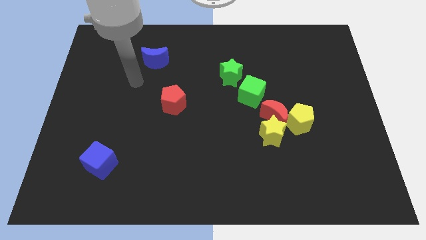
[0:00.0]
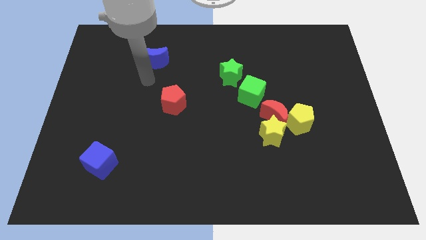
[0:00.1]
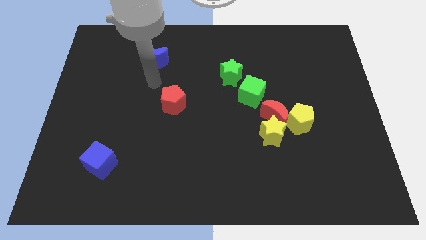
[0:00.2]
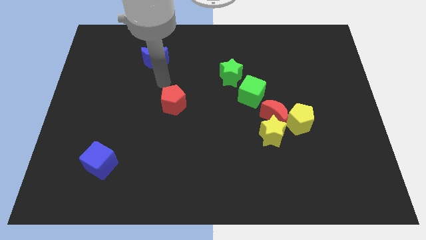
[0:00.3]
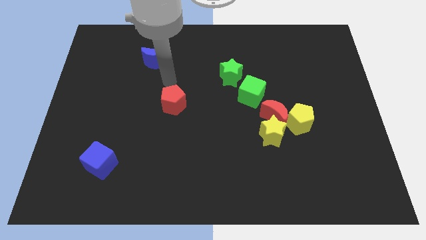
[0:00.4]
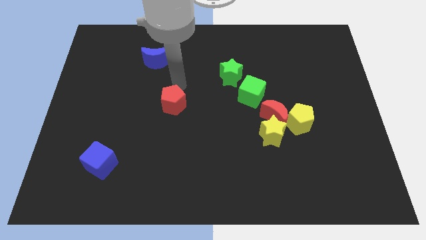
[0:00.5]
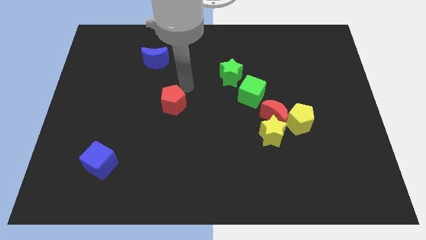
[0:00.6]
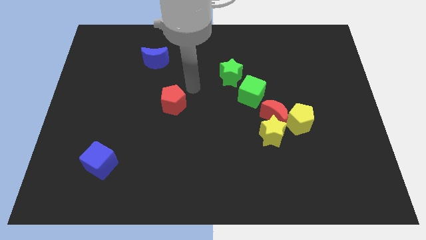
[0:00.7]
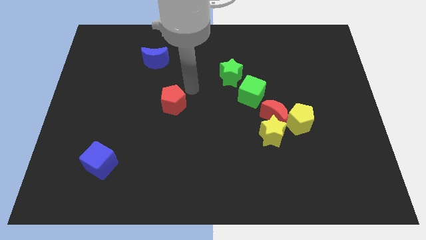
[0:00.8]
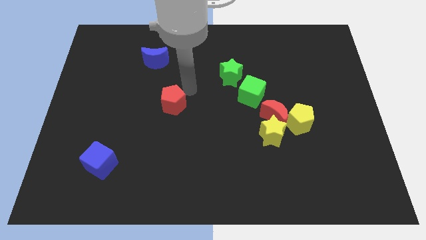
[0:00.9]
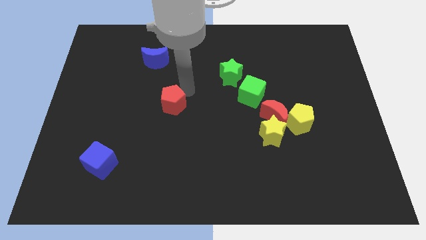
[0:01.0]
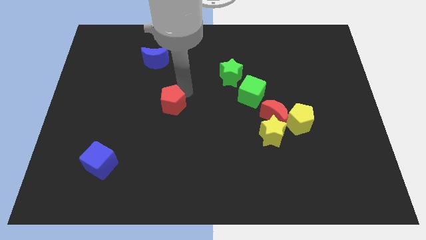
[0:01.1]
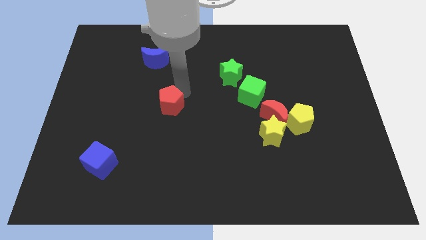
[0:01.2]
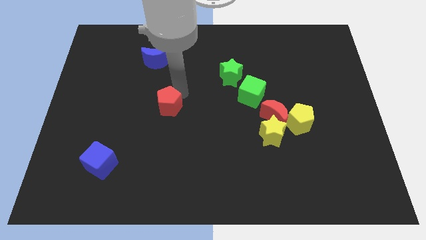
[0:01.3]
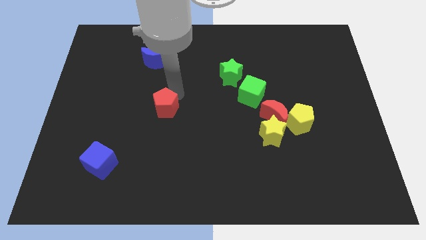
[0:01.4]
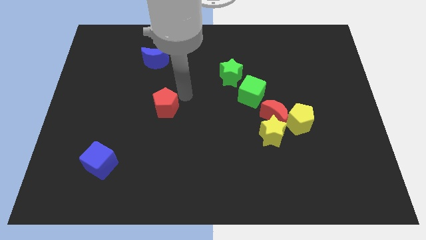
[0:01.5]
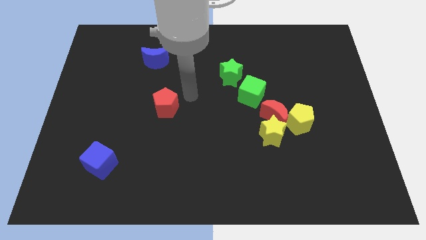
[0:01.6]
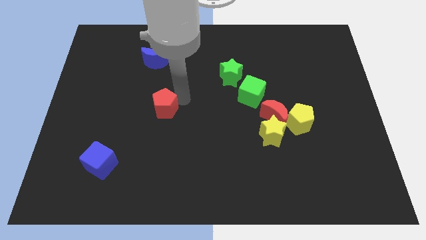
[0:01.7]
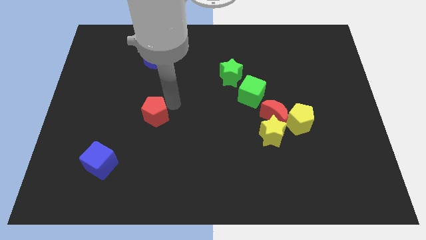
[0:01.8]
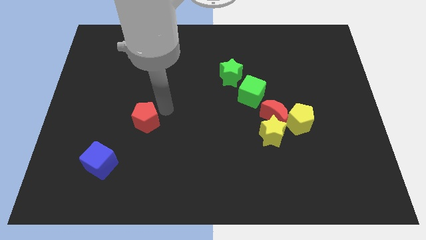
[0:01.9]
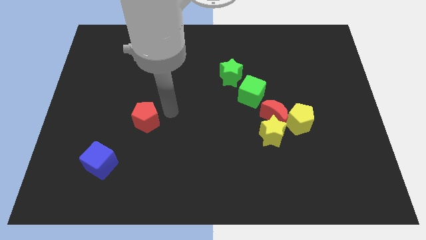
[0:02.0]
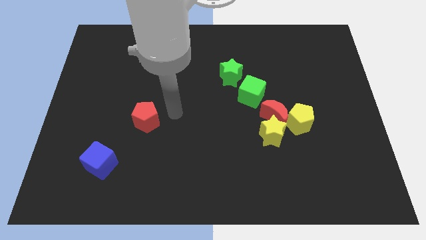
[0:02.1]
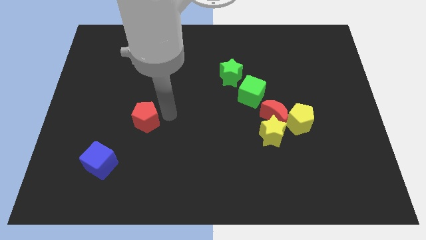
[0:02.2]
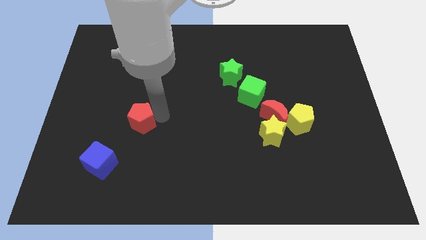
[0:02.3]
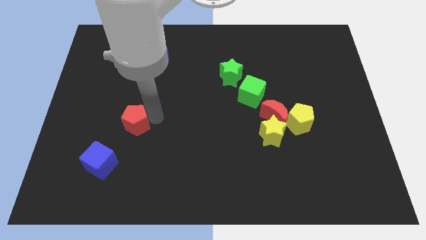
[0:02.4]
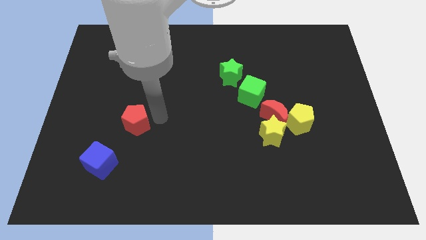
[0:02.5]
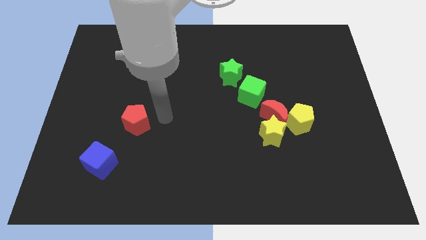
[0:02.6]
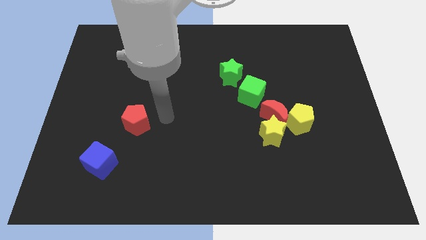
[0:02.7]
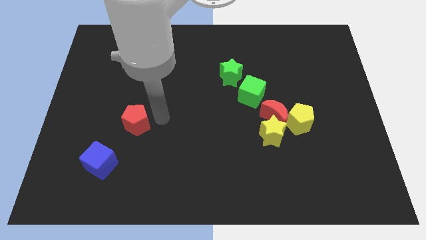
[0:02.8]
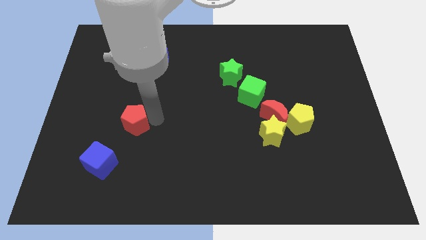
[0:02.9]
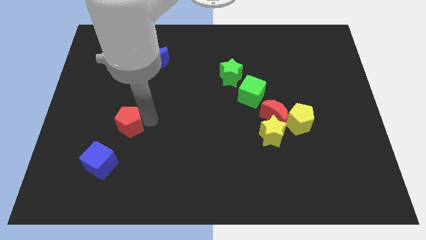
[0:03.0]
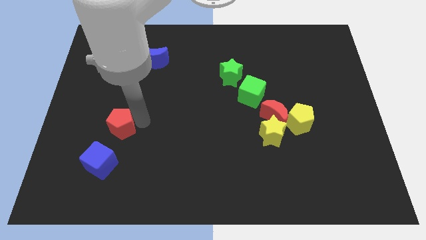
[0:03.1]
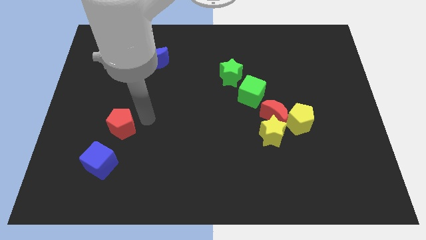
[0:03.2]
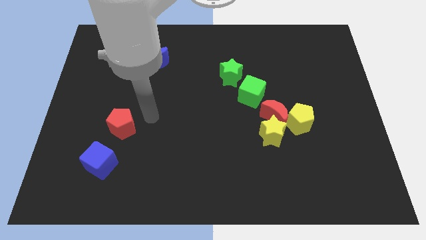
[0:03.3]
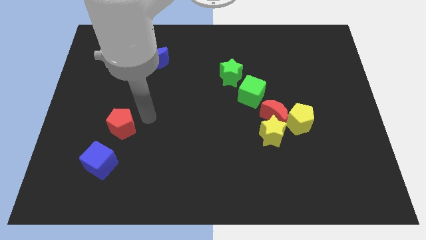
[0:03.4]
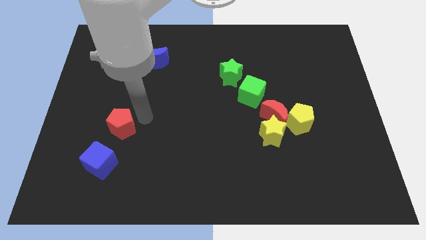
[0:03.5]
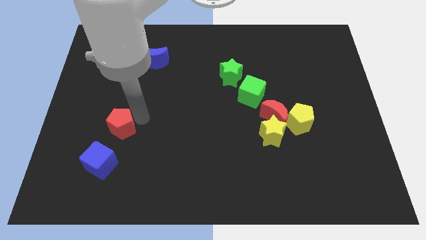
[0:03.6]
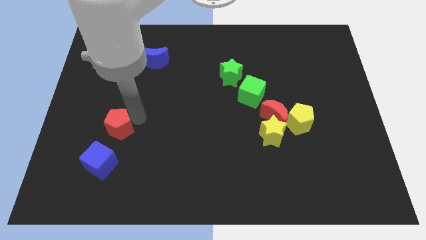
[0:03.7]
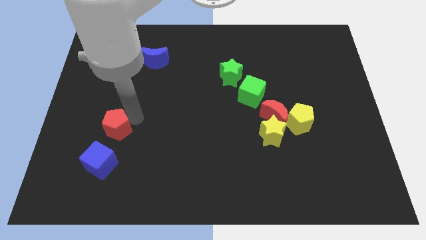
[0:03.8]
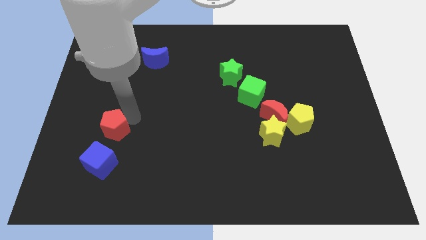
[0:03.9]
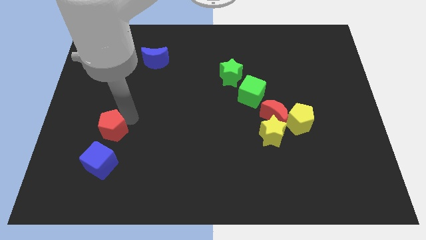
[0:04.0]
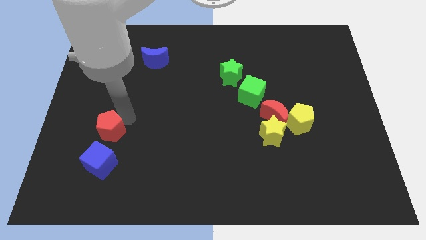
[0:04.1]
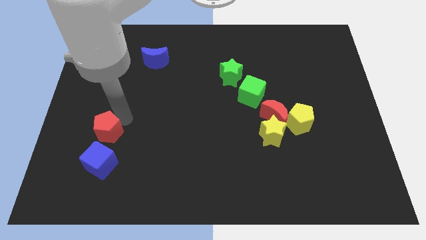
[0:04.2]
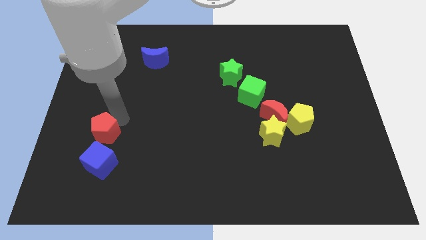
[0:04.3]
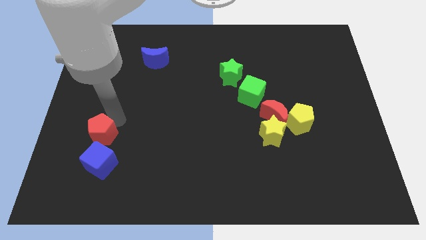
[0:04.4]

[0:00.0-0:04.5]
push the red pentagon to the top left of the blue cube

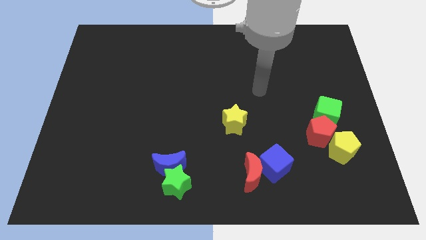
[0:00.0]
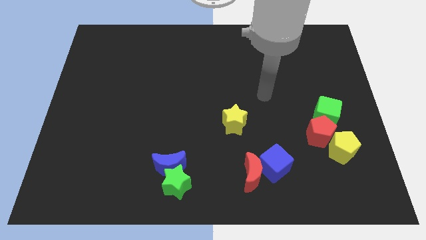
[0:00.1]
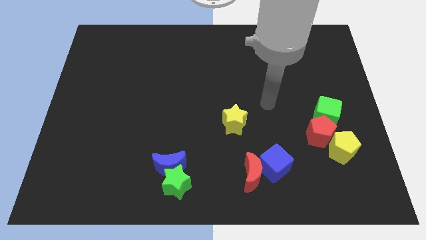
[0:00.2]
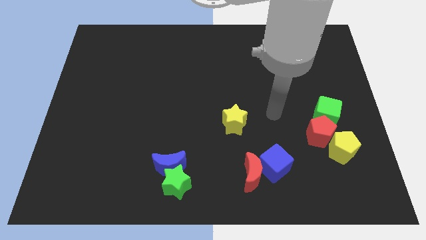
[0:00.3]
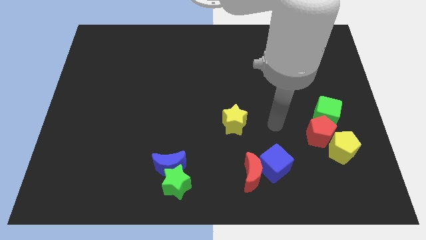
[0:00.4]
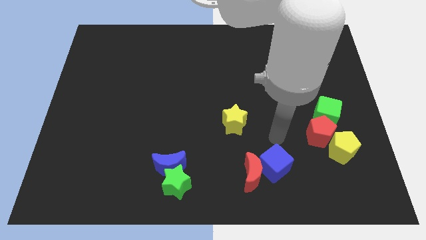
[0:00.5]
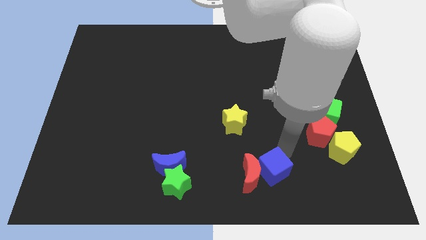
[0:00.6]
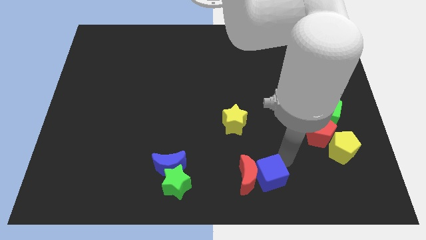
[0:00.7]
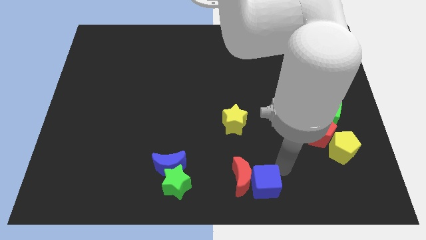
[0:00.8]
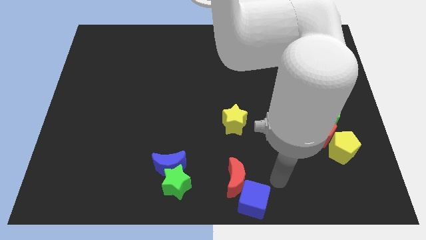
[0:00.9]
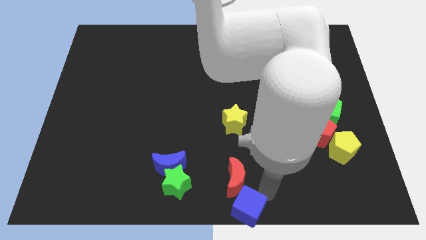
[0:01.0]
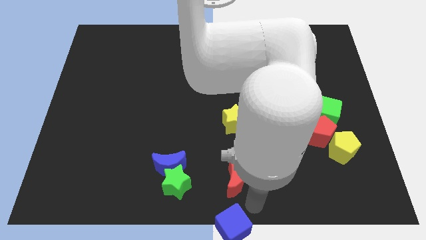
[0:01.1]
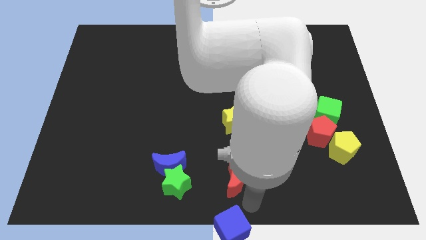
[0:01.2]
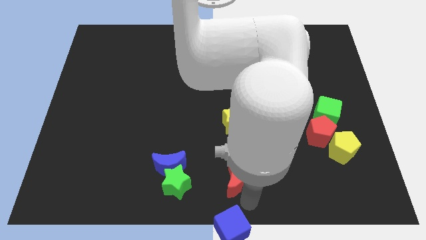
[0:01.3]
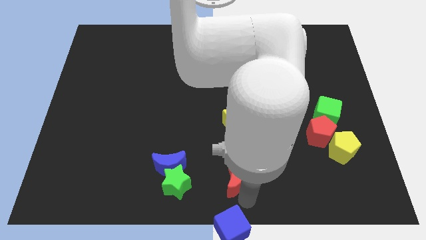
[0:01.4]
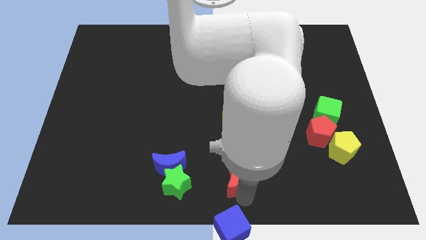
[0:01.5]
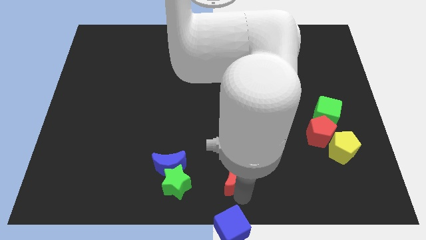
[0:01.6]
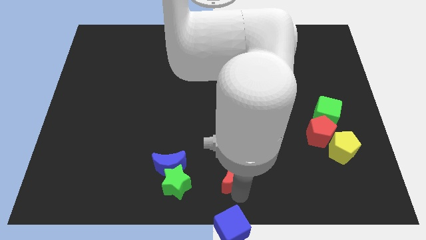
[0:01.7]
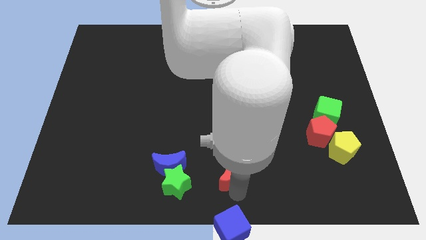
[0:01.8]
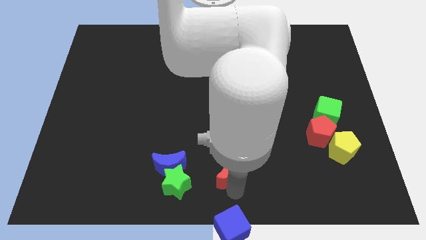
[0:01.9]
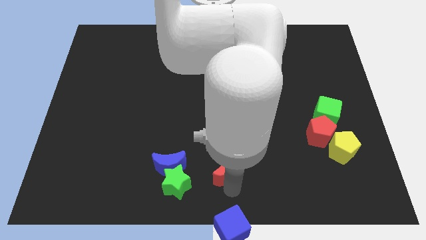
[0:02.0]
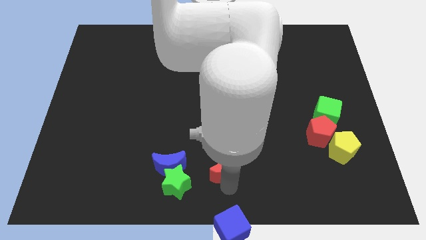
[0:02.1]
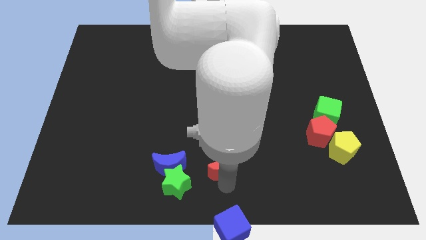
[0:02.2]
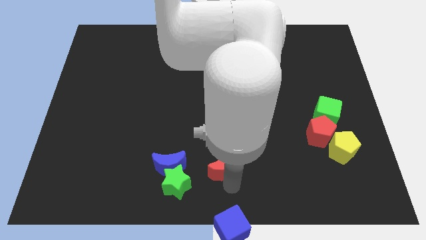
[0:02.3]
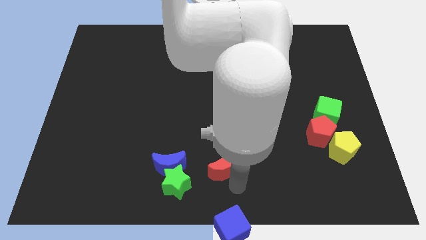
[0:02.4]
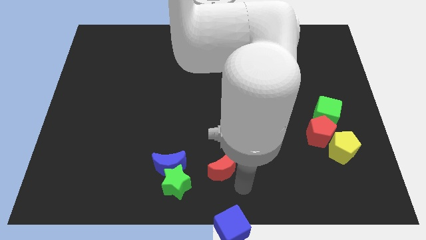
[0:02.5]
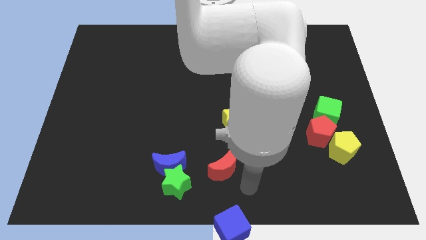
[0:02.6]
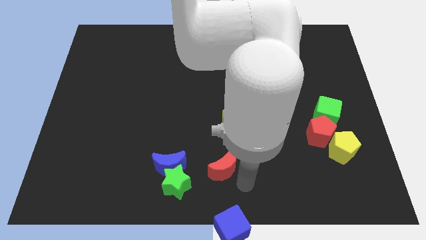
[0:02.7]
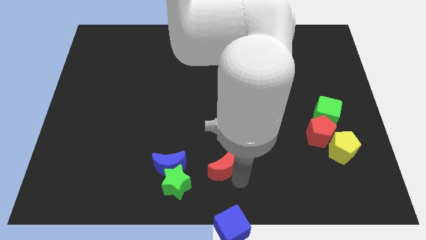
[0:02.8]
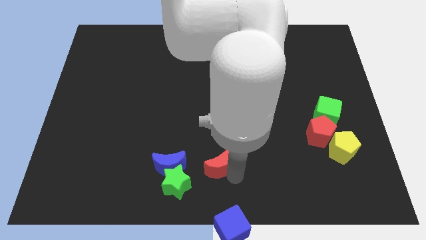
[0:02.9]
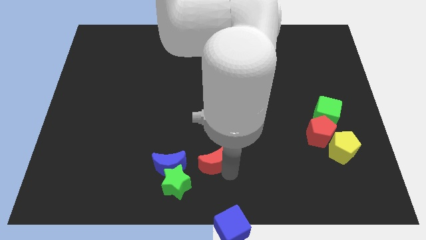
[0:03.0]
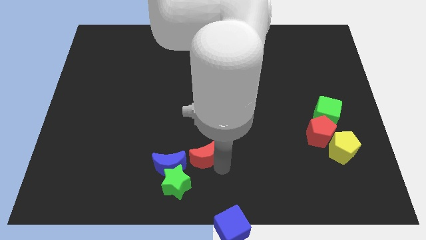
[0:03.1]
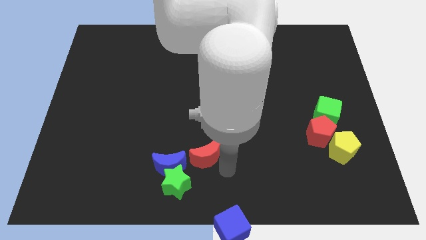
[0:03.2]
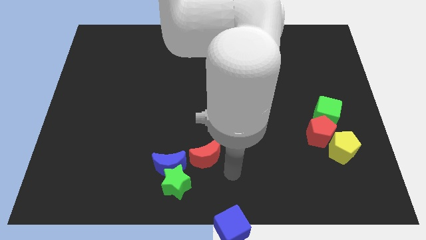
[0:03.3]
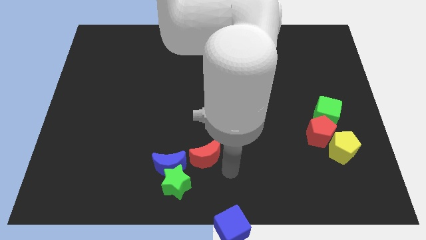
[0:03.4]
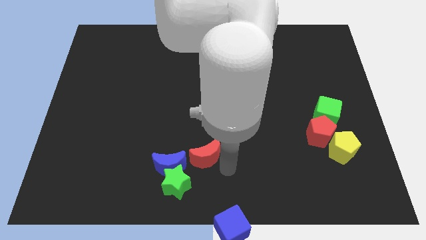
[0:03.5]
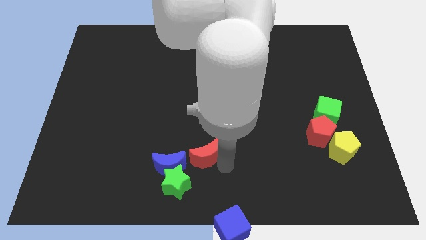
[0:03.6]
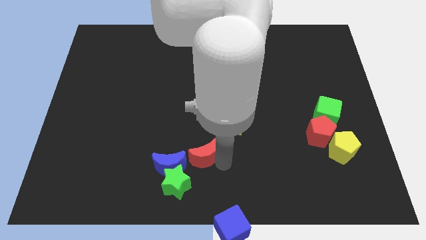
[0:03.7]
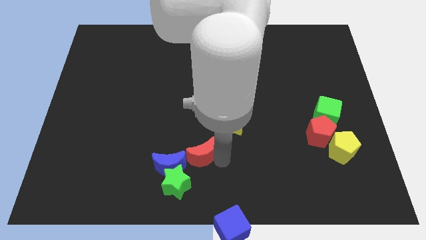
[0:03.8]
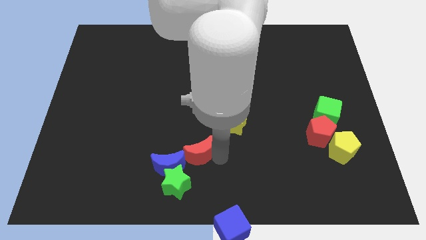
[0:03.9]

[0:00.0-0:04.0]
push the red moon above the green star
